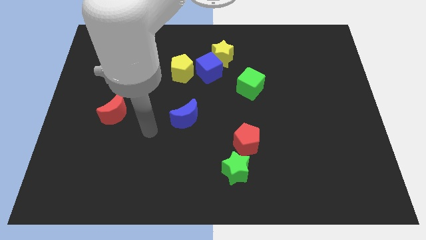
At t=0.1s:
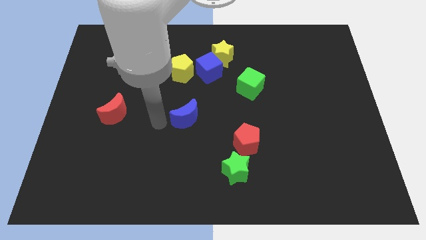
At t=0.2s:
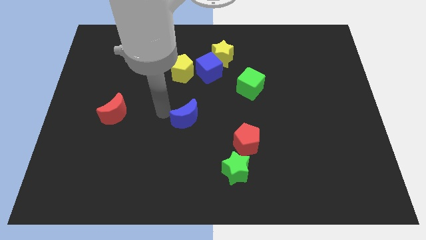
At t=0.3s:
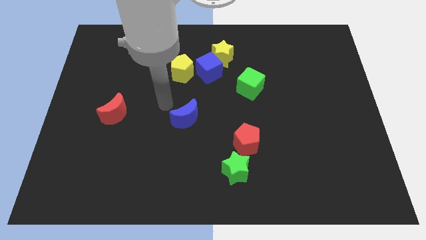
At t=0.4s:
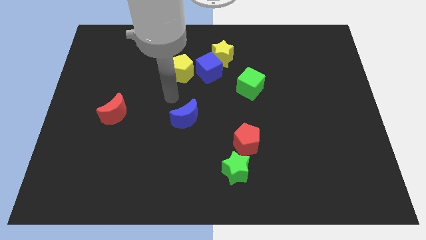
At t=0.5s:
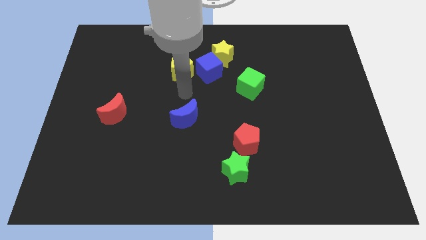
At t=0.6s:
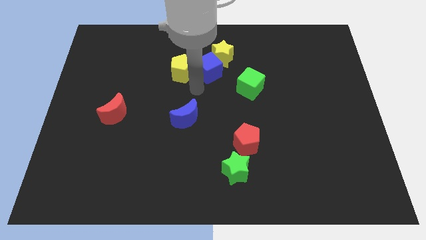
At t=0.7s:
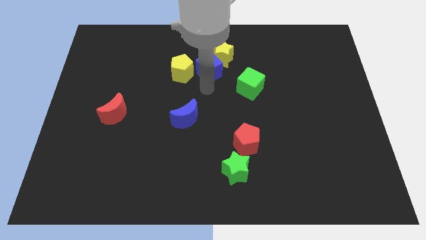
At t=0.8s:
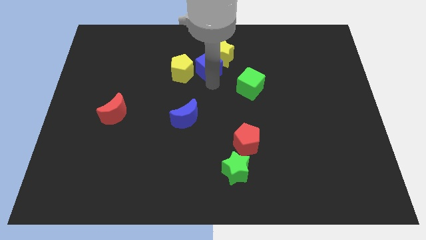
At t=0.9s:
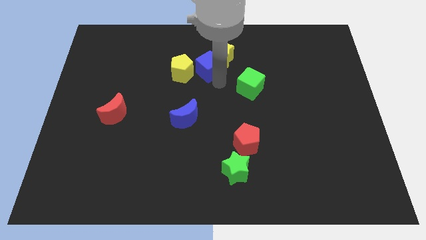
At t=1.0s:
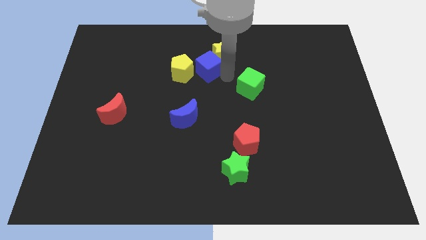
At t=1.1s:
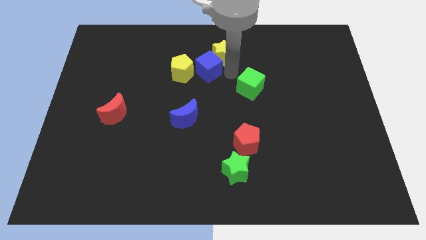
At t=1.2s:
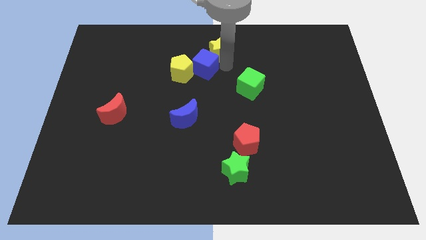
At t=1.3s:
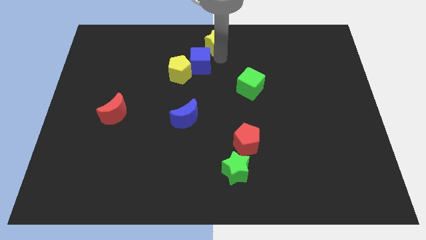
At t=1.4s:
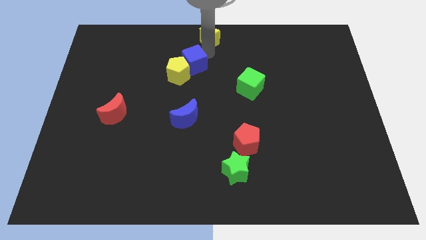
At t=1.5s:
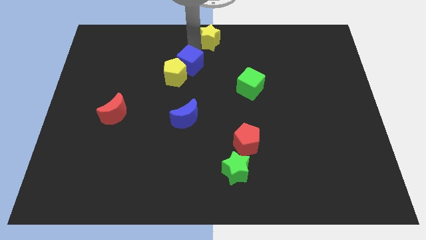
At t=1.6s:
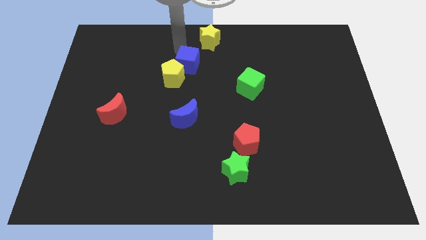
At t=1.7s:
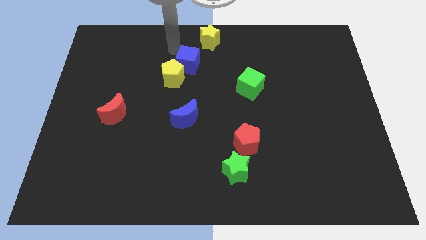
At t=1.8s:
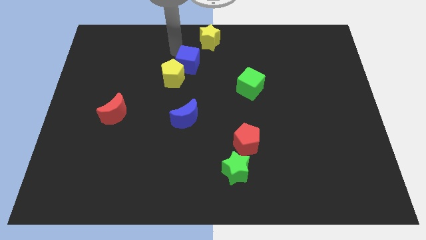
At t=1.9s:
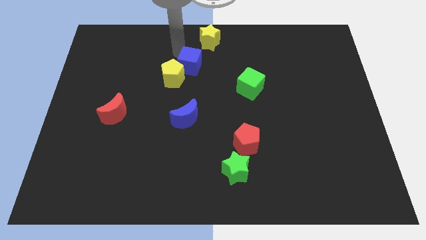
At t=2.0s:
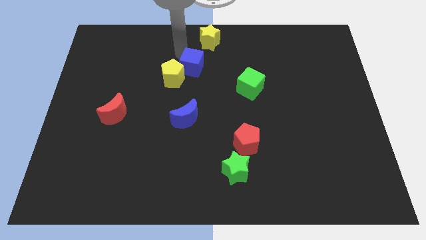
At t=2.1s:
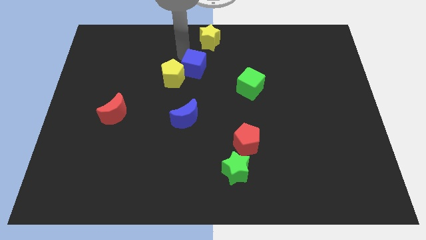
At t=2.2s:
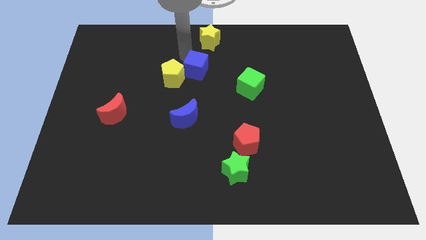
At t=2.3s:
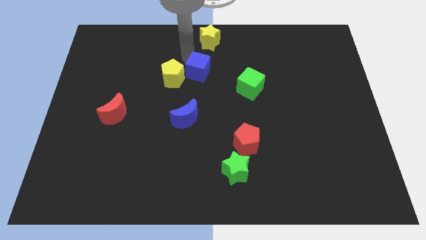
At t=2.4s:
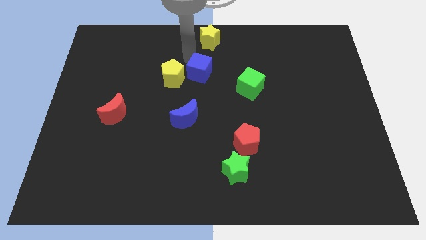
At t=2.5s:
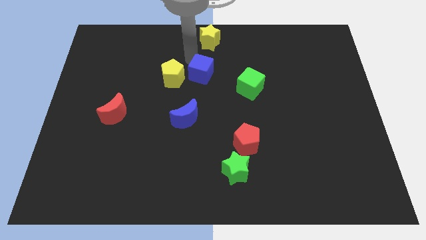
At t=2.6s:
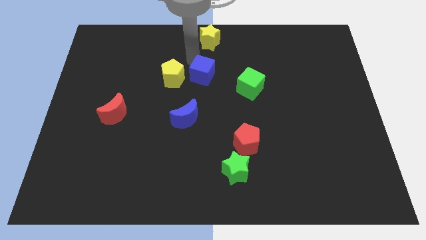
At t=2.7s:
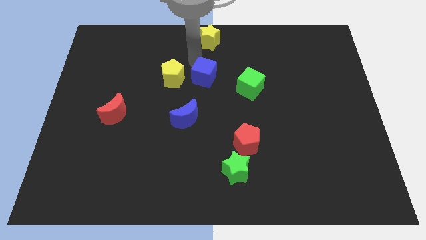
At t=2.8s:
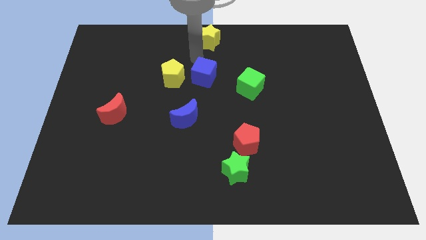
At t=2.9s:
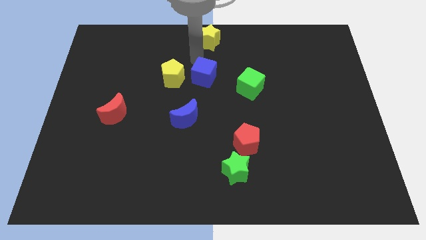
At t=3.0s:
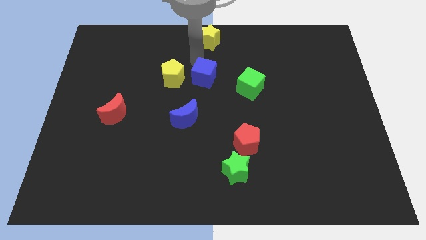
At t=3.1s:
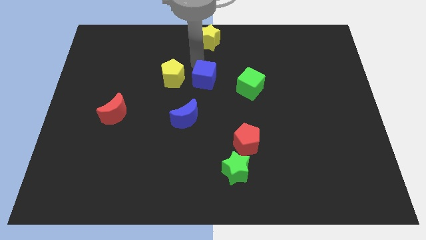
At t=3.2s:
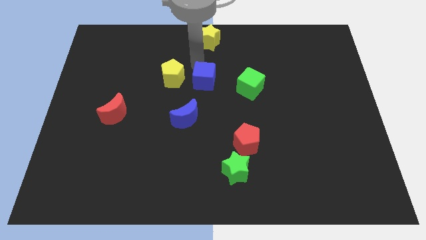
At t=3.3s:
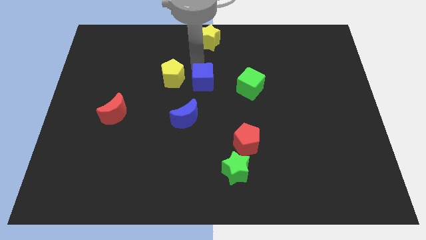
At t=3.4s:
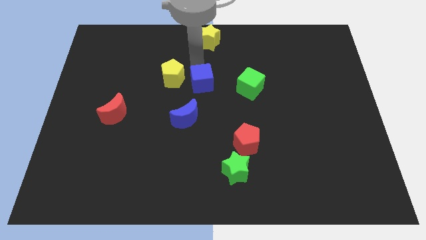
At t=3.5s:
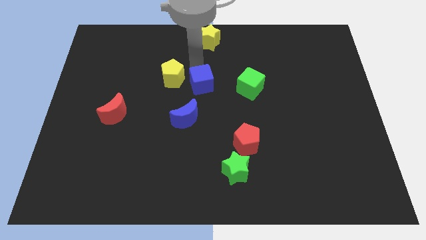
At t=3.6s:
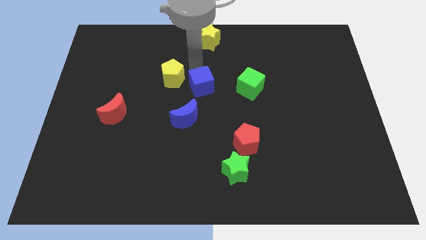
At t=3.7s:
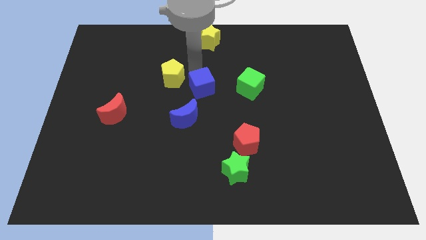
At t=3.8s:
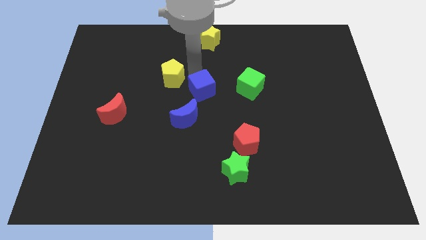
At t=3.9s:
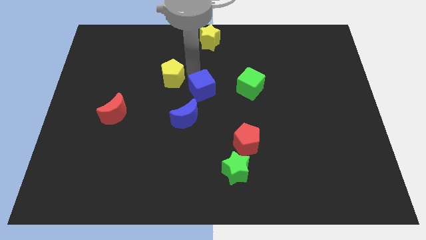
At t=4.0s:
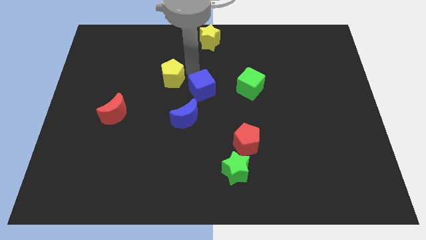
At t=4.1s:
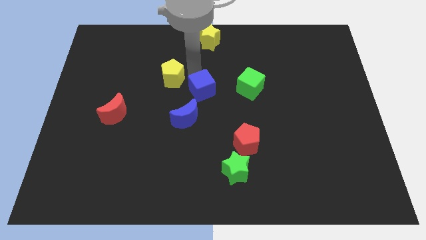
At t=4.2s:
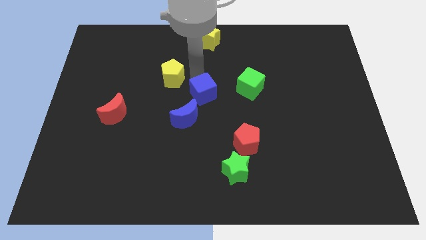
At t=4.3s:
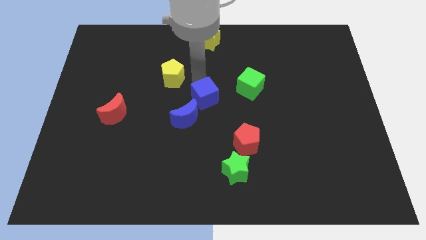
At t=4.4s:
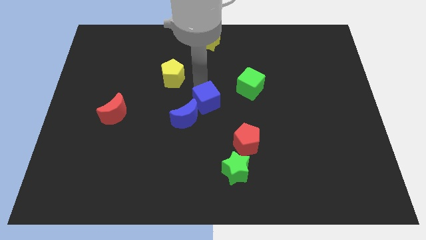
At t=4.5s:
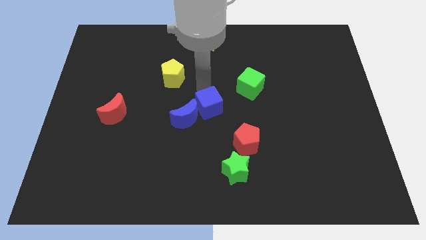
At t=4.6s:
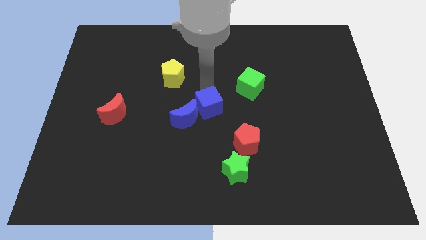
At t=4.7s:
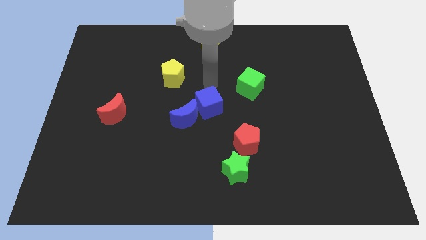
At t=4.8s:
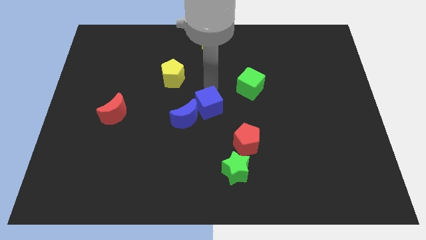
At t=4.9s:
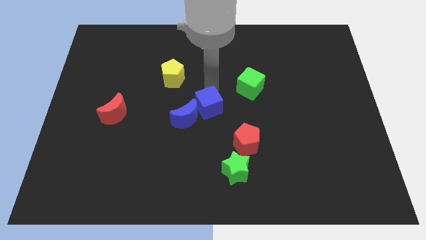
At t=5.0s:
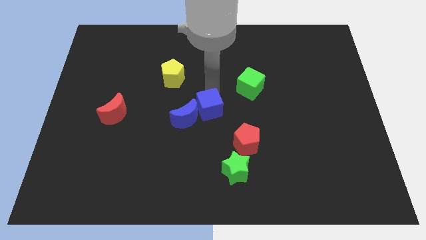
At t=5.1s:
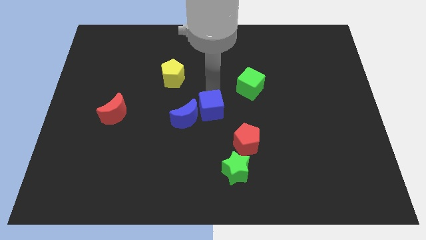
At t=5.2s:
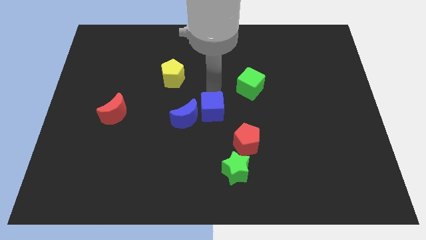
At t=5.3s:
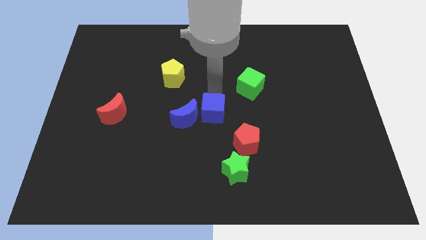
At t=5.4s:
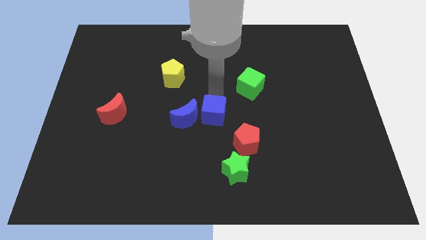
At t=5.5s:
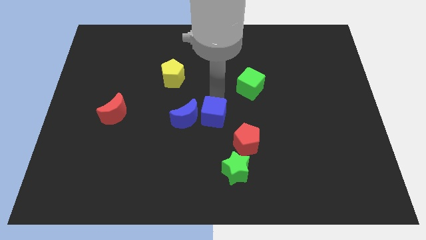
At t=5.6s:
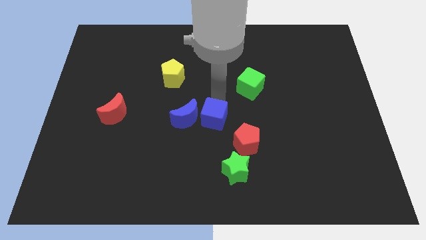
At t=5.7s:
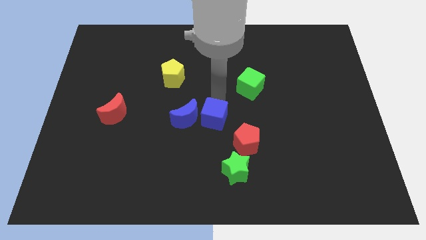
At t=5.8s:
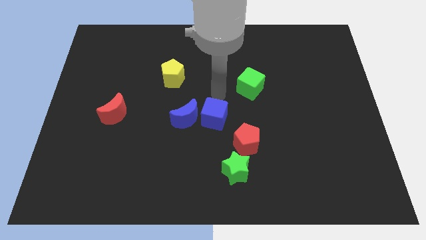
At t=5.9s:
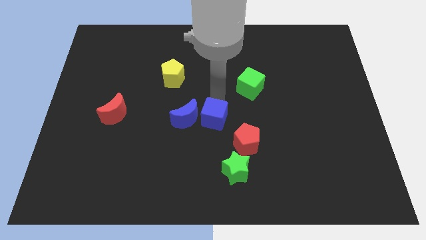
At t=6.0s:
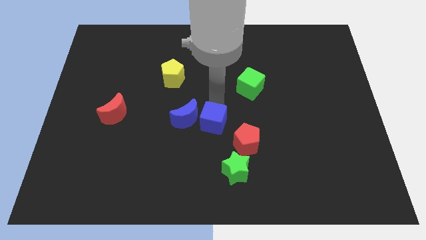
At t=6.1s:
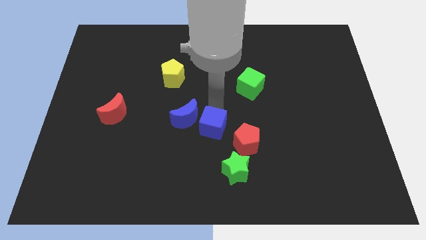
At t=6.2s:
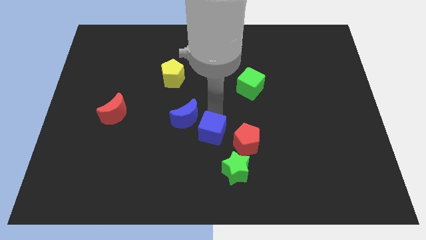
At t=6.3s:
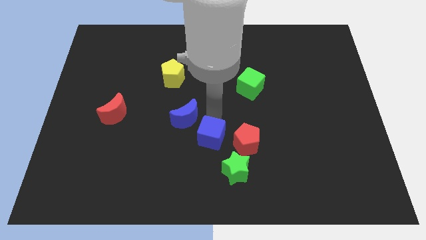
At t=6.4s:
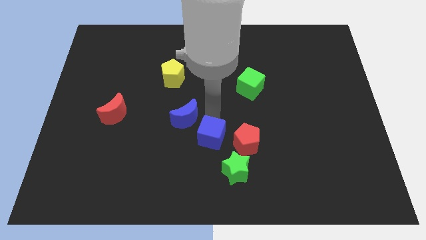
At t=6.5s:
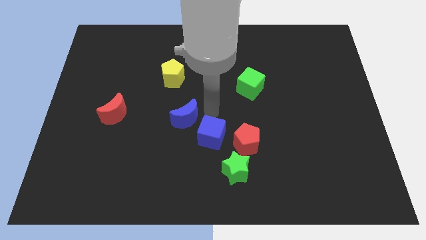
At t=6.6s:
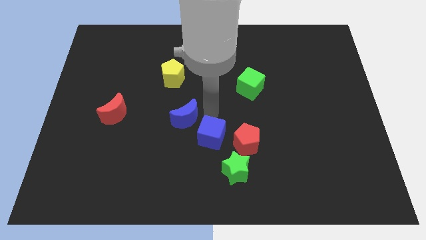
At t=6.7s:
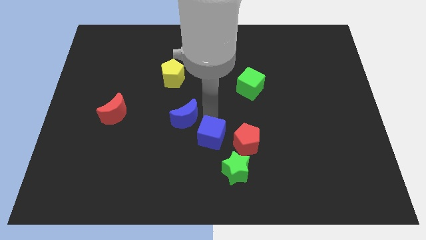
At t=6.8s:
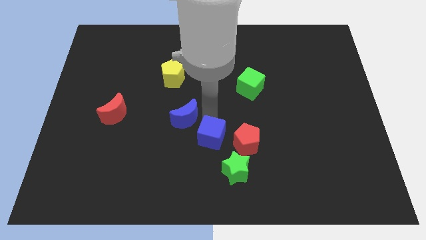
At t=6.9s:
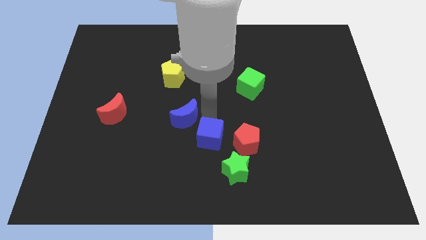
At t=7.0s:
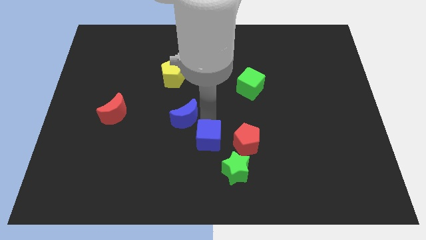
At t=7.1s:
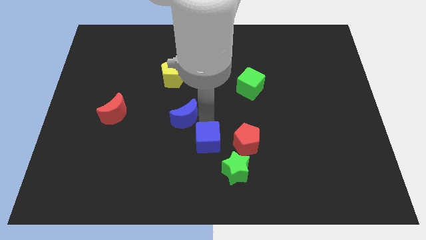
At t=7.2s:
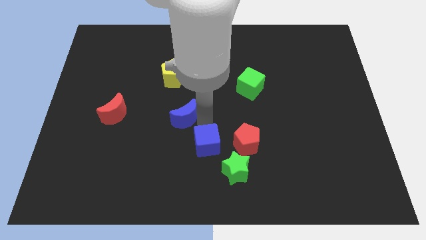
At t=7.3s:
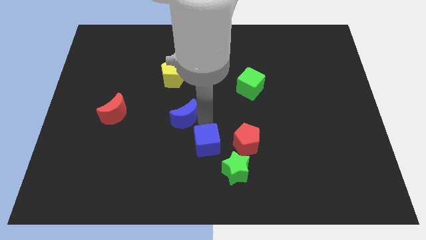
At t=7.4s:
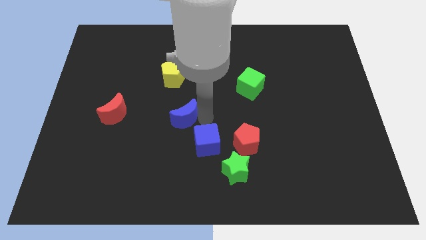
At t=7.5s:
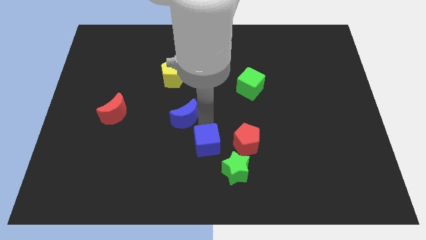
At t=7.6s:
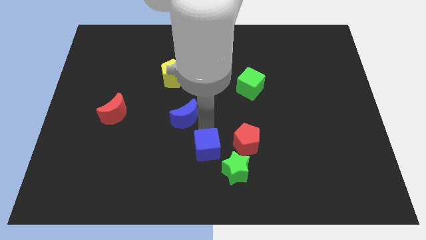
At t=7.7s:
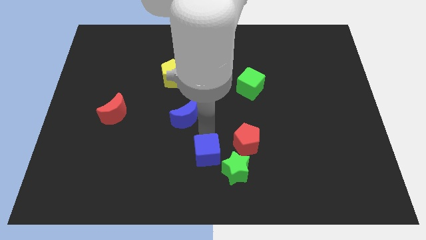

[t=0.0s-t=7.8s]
put the blue cube to the bottom

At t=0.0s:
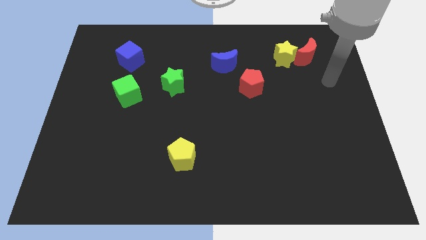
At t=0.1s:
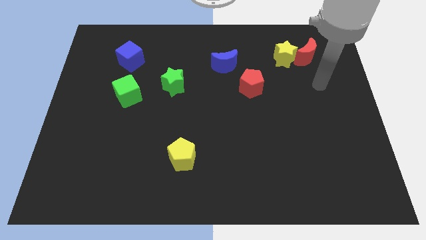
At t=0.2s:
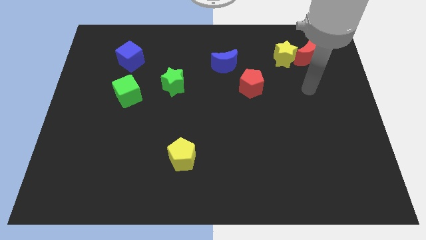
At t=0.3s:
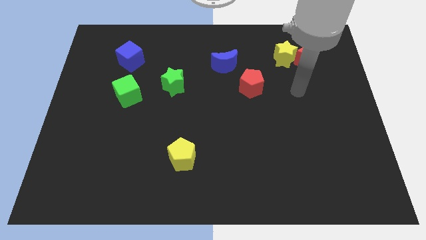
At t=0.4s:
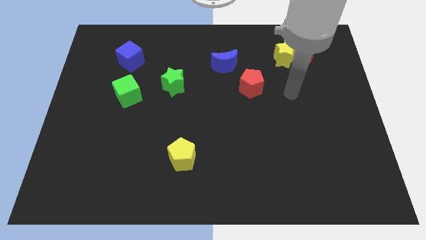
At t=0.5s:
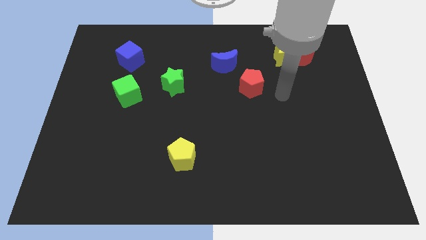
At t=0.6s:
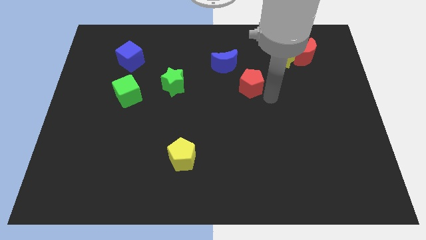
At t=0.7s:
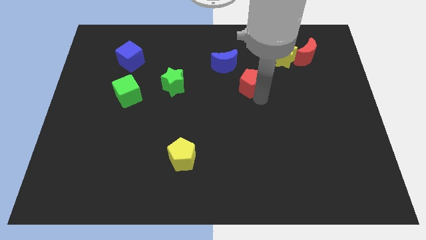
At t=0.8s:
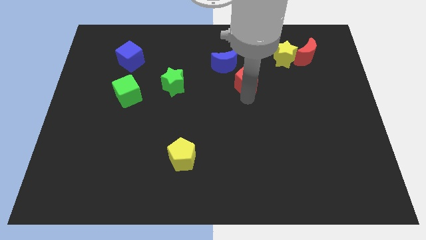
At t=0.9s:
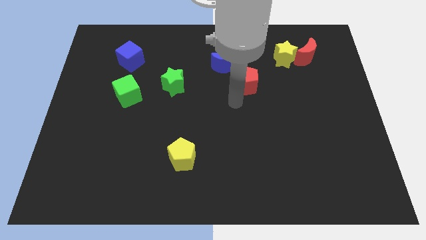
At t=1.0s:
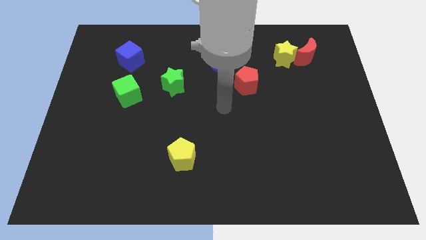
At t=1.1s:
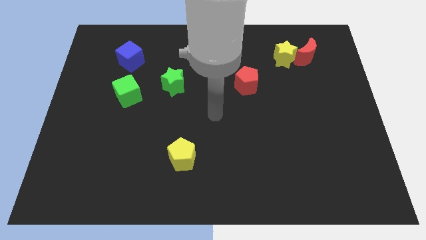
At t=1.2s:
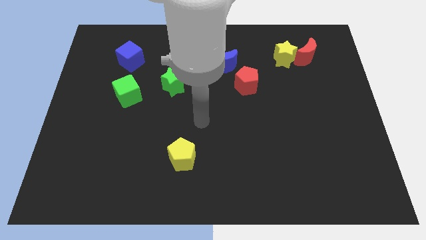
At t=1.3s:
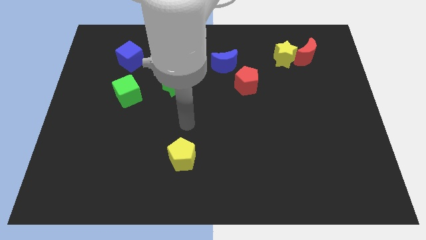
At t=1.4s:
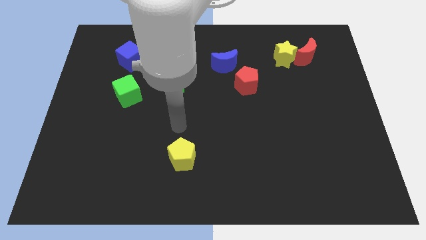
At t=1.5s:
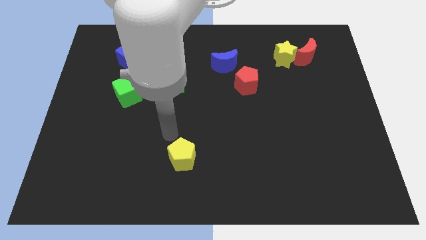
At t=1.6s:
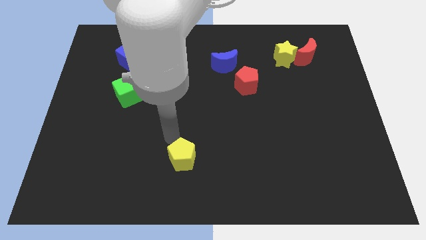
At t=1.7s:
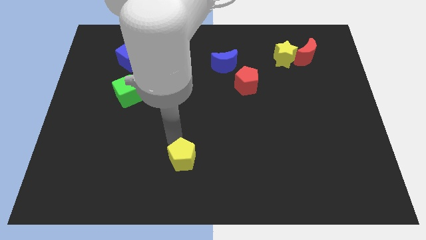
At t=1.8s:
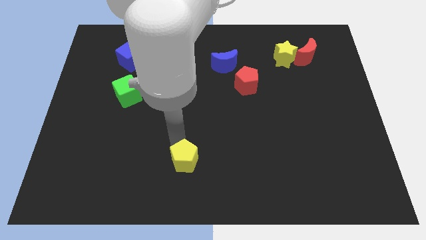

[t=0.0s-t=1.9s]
push the yellow pentagon to the bottom
